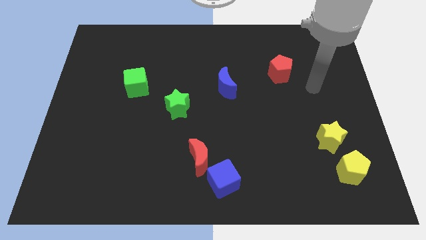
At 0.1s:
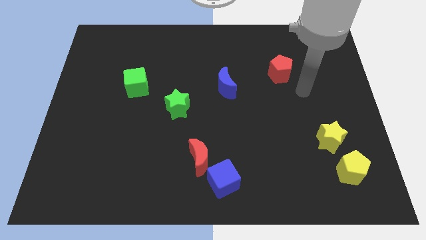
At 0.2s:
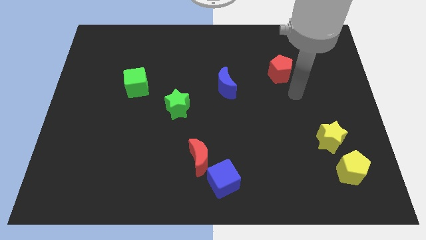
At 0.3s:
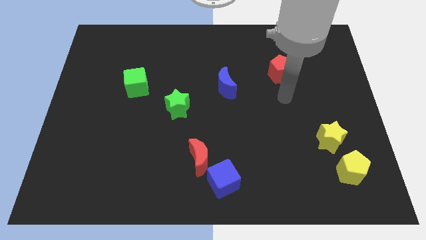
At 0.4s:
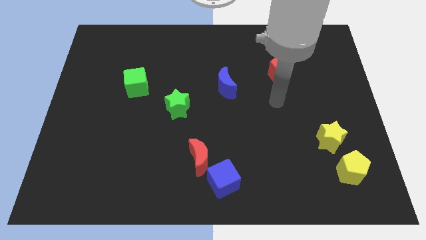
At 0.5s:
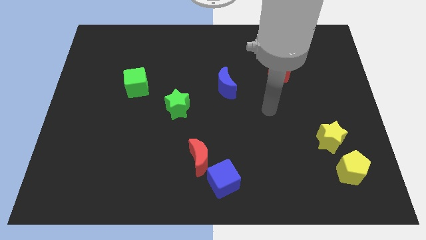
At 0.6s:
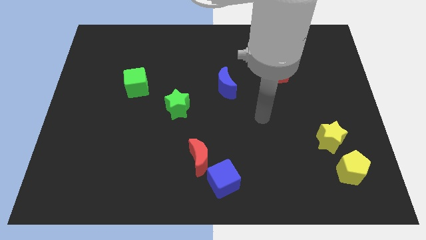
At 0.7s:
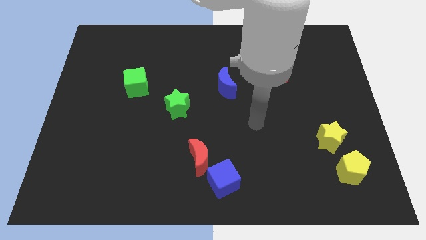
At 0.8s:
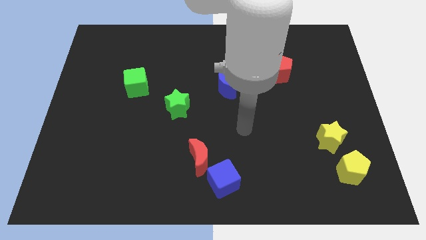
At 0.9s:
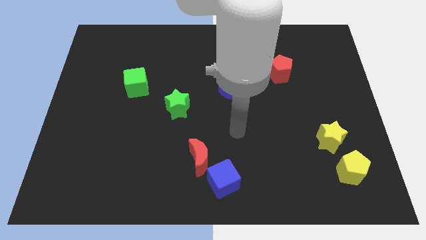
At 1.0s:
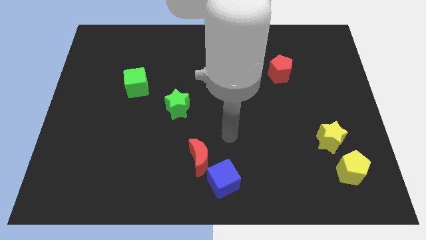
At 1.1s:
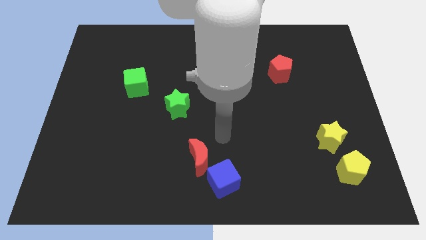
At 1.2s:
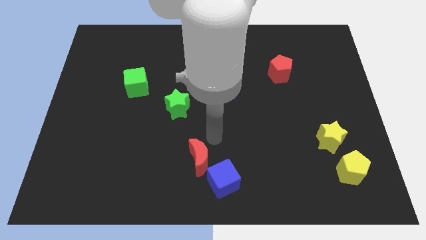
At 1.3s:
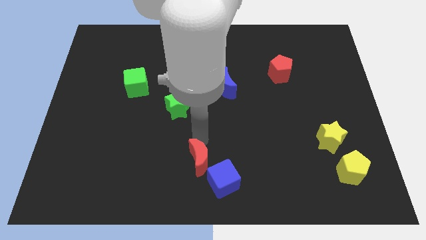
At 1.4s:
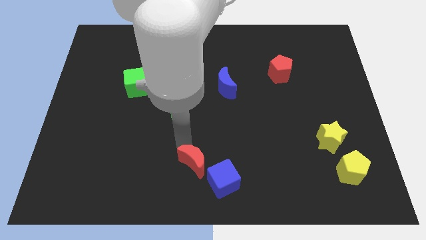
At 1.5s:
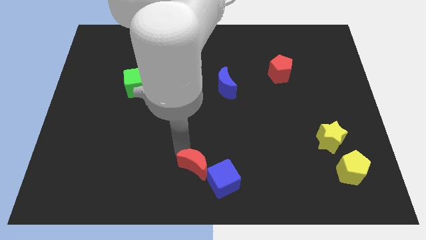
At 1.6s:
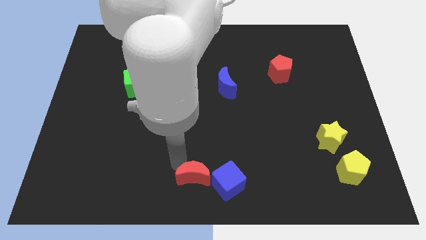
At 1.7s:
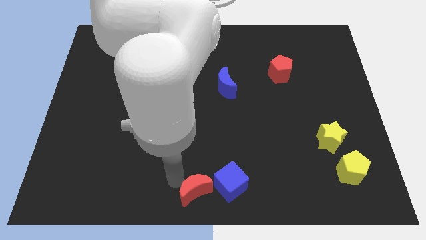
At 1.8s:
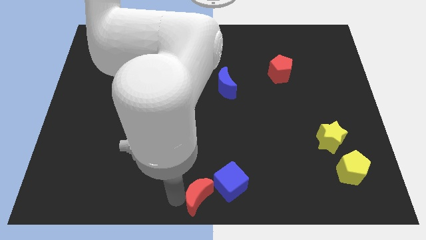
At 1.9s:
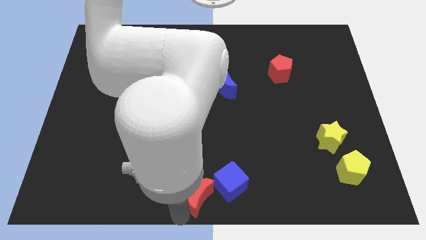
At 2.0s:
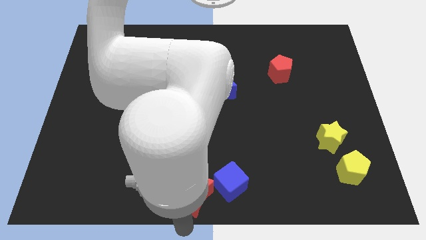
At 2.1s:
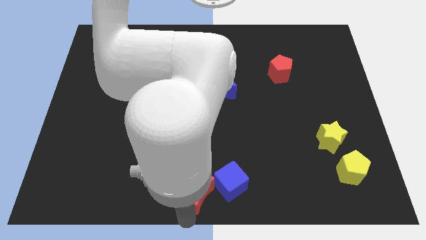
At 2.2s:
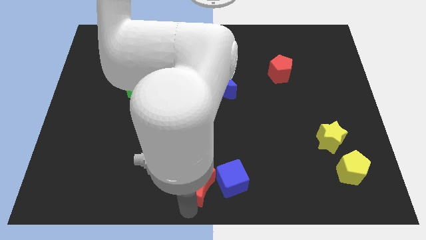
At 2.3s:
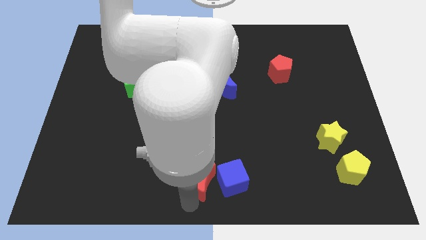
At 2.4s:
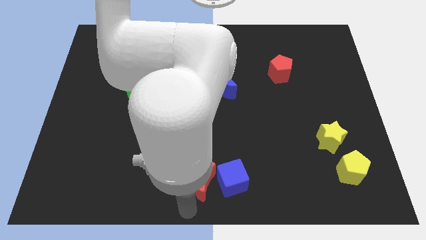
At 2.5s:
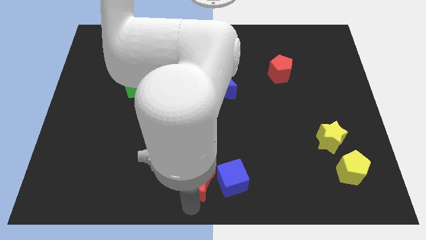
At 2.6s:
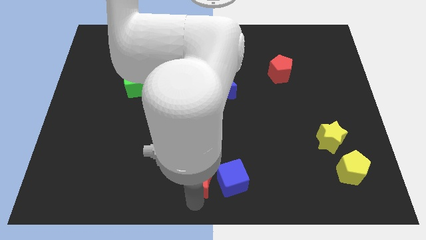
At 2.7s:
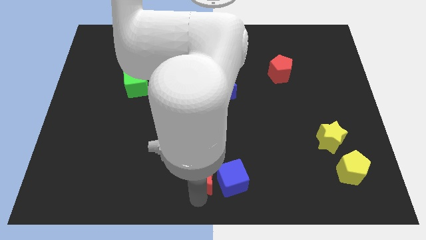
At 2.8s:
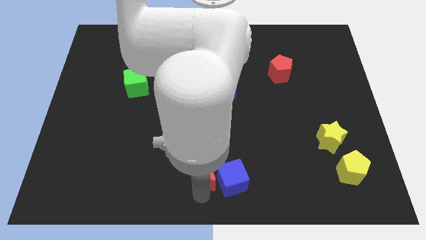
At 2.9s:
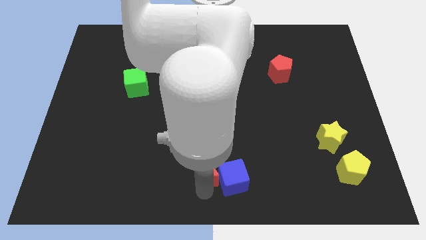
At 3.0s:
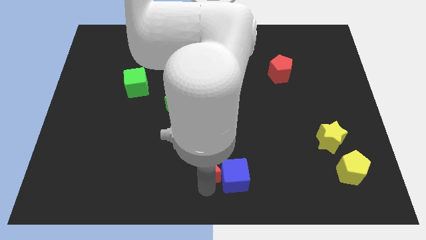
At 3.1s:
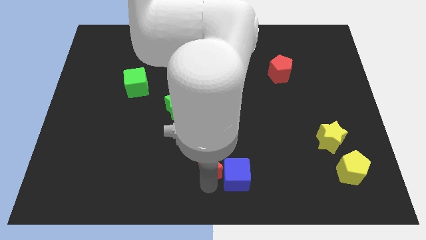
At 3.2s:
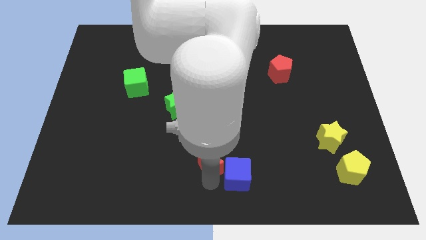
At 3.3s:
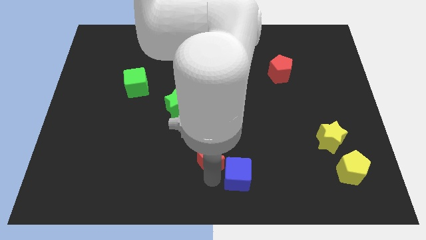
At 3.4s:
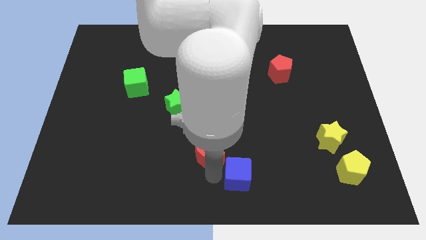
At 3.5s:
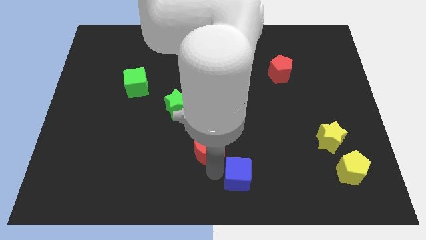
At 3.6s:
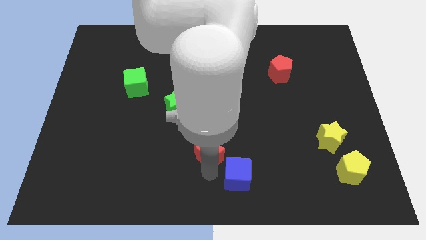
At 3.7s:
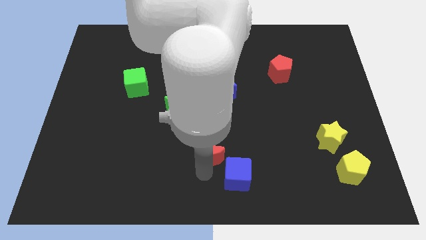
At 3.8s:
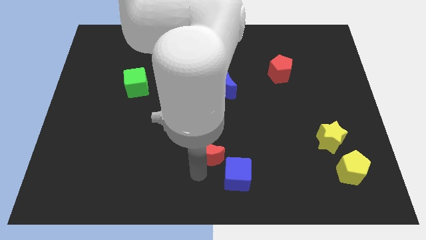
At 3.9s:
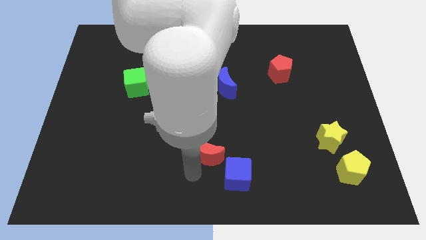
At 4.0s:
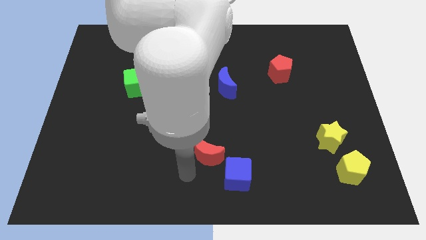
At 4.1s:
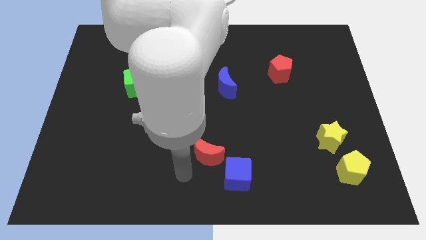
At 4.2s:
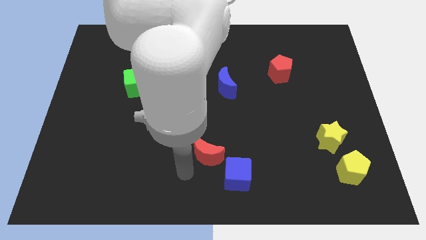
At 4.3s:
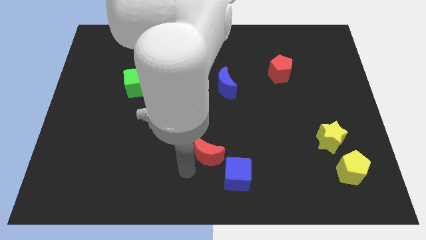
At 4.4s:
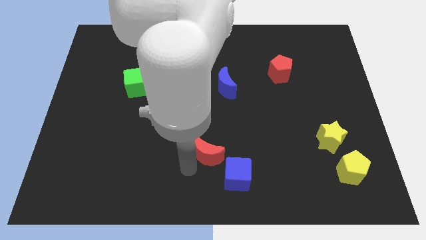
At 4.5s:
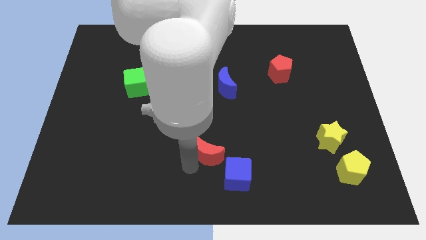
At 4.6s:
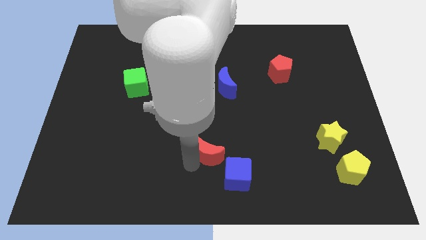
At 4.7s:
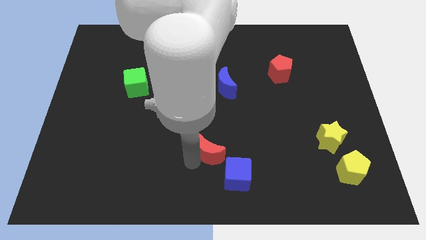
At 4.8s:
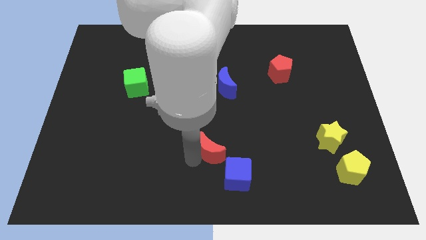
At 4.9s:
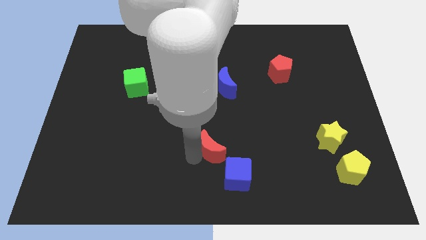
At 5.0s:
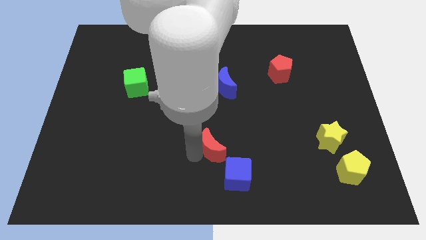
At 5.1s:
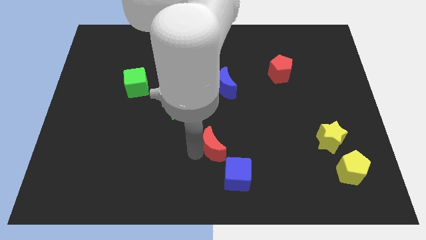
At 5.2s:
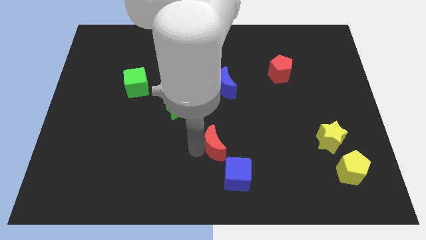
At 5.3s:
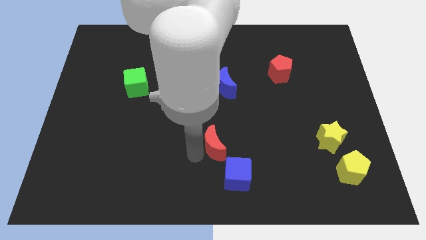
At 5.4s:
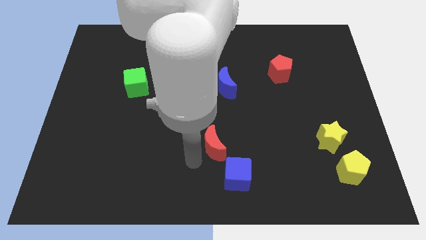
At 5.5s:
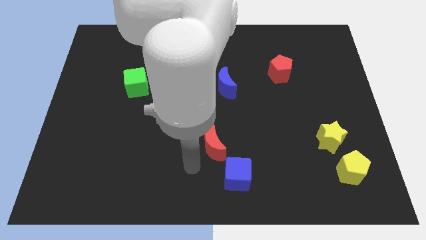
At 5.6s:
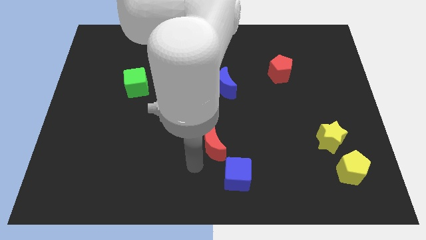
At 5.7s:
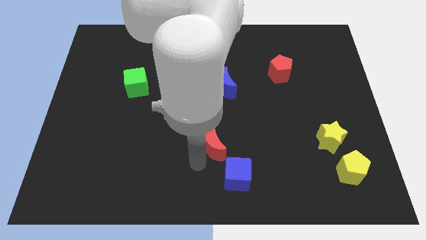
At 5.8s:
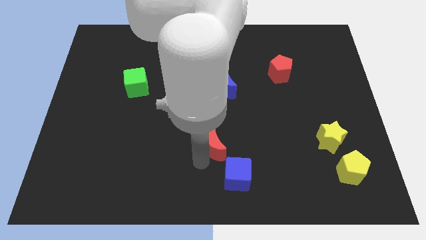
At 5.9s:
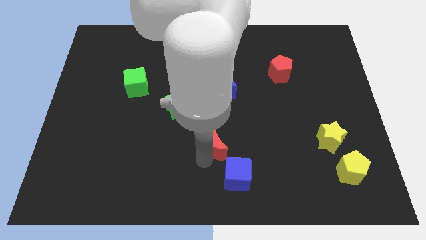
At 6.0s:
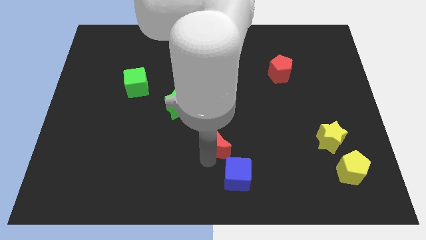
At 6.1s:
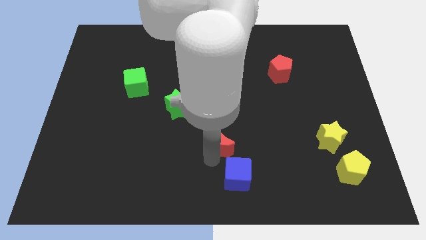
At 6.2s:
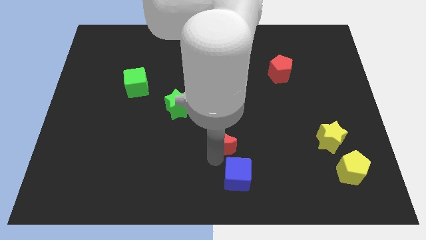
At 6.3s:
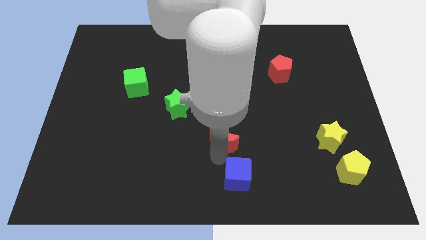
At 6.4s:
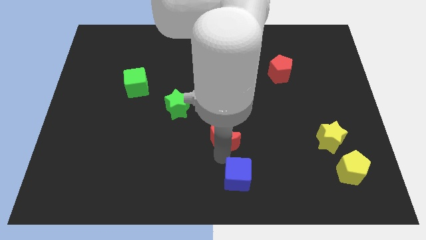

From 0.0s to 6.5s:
move the red moon a little diagonally up and to the right

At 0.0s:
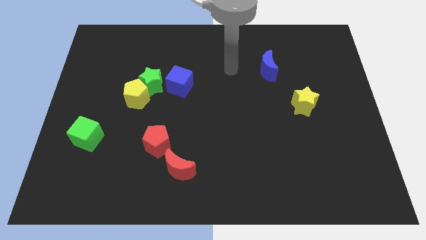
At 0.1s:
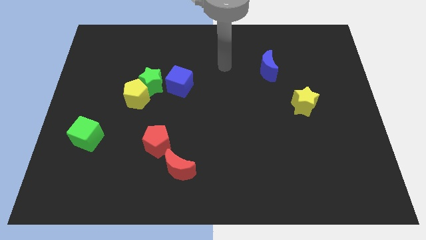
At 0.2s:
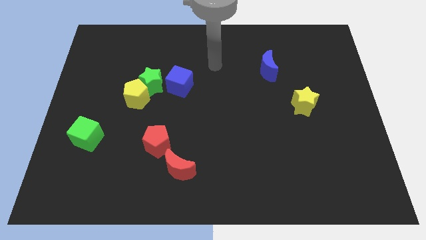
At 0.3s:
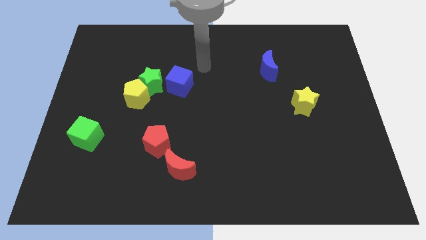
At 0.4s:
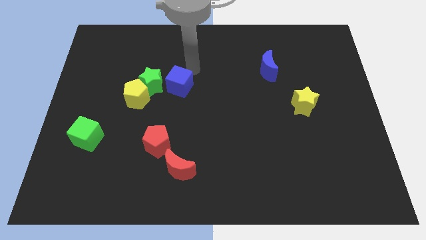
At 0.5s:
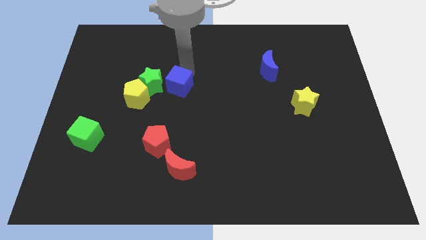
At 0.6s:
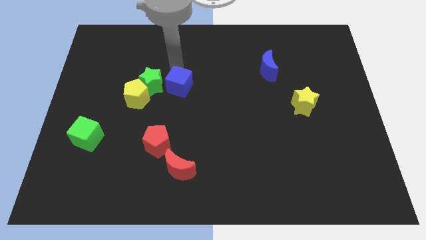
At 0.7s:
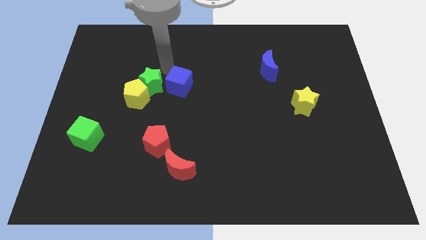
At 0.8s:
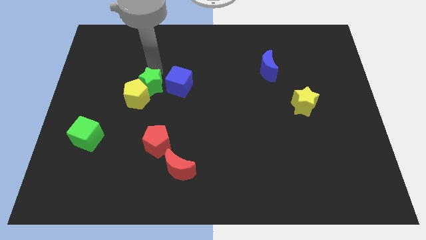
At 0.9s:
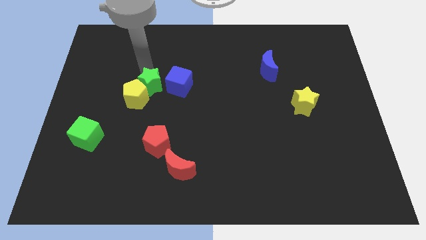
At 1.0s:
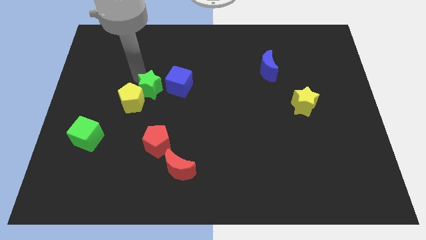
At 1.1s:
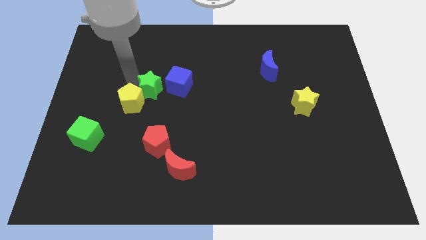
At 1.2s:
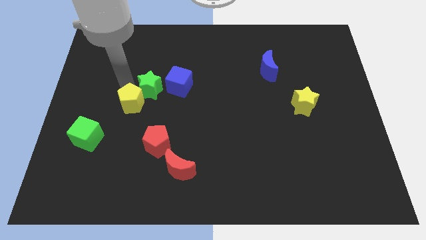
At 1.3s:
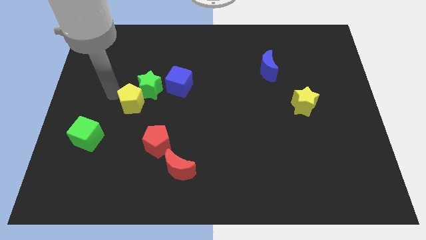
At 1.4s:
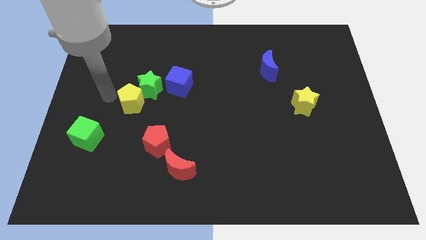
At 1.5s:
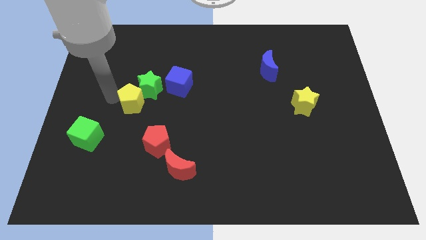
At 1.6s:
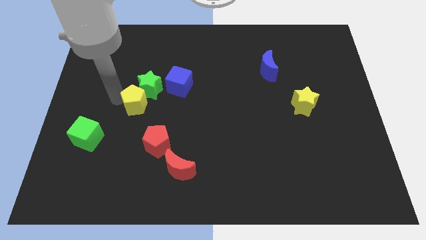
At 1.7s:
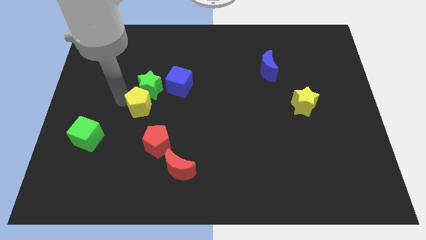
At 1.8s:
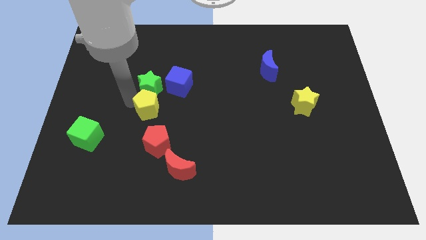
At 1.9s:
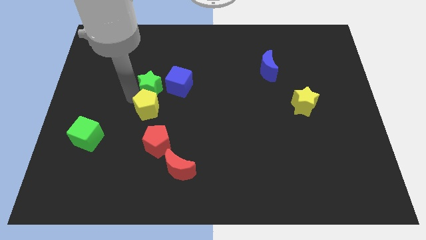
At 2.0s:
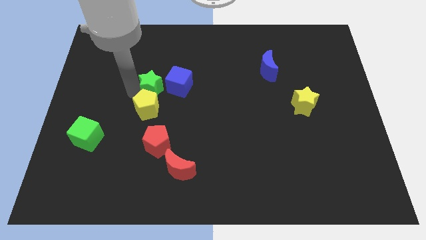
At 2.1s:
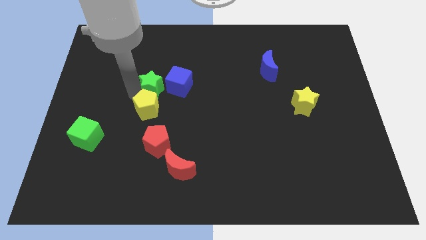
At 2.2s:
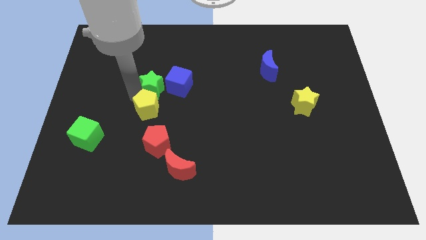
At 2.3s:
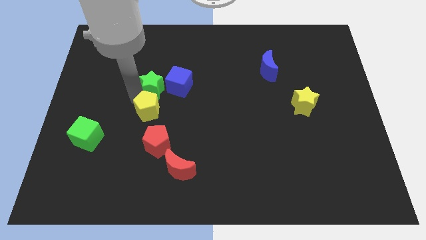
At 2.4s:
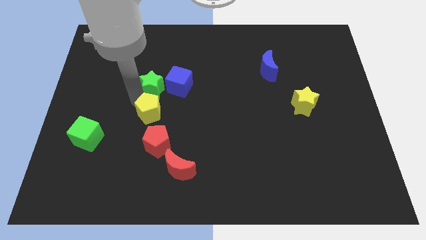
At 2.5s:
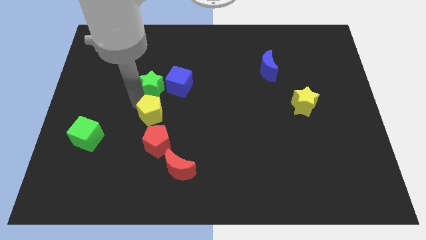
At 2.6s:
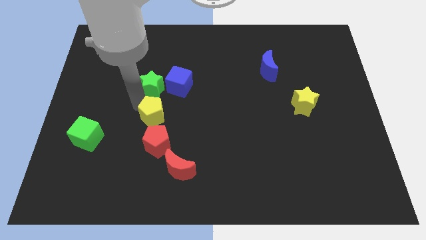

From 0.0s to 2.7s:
slightly move the yellow pentagon downwards and right
